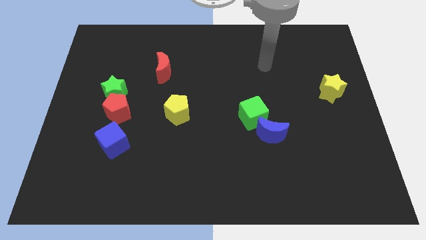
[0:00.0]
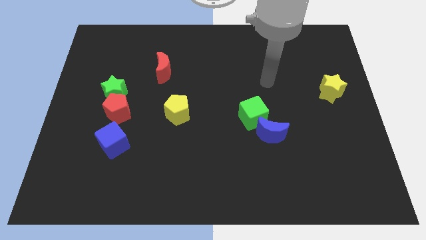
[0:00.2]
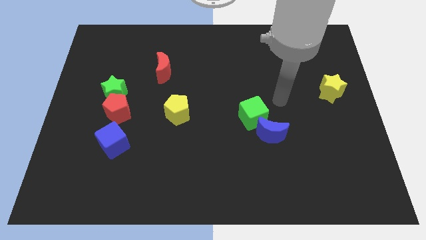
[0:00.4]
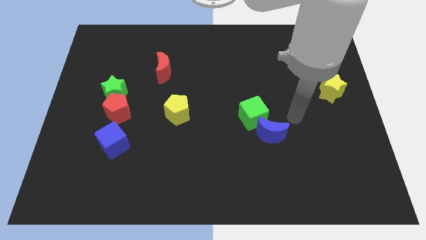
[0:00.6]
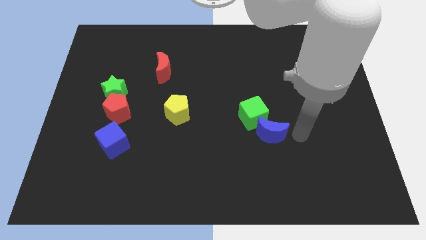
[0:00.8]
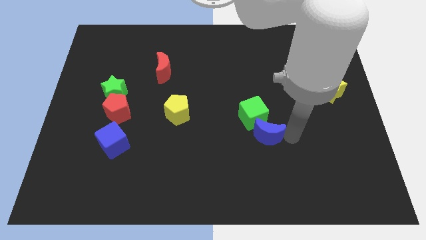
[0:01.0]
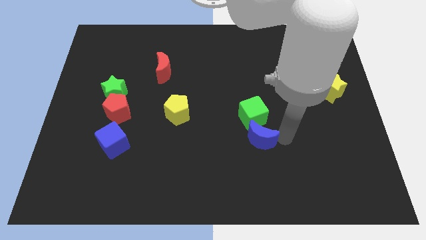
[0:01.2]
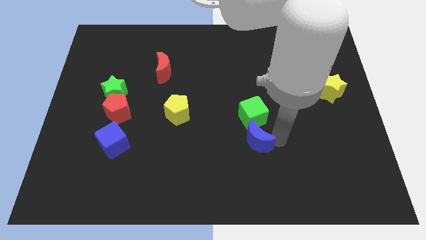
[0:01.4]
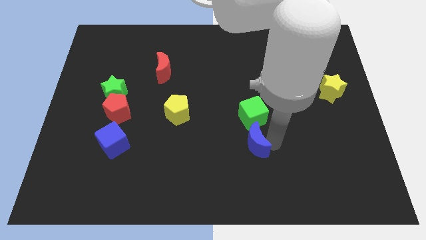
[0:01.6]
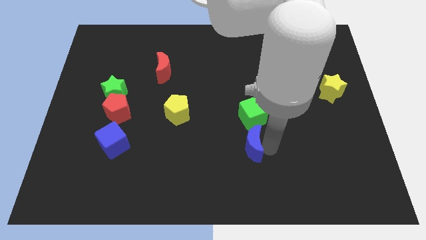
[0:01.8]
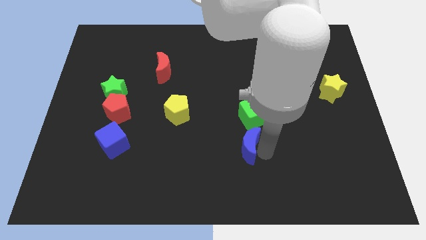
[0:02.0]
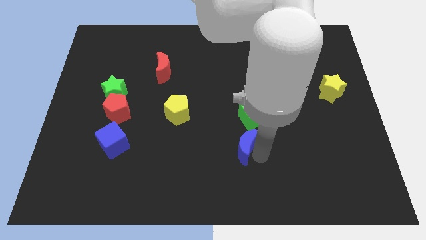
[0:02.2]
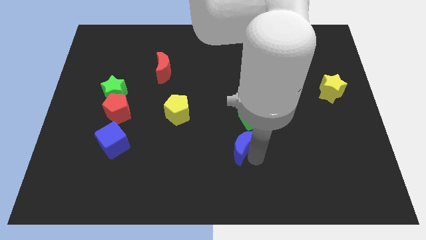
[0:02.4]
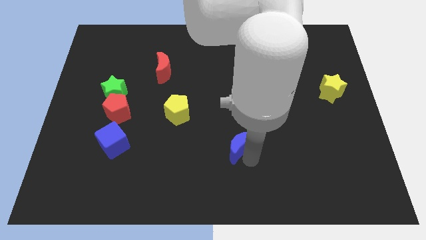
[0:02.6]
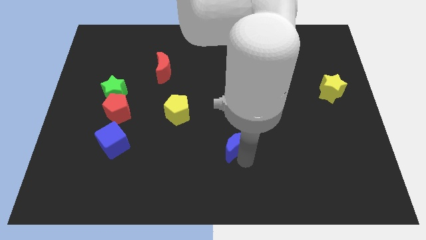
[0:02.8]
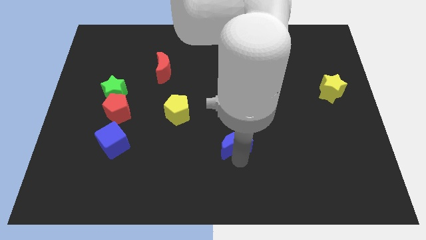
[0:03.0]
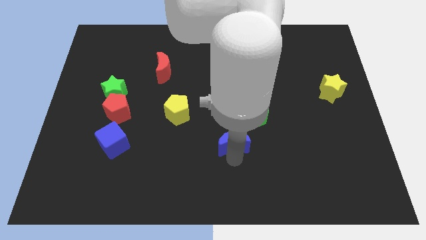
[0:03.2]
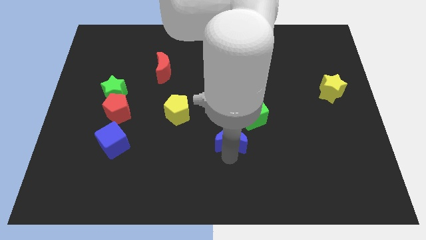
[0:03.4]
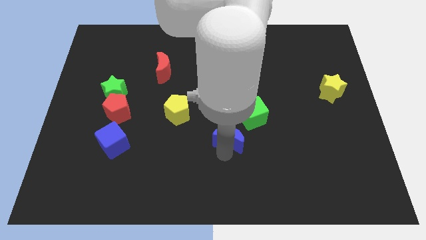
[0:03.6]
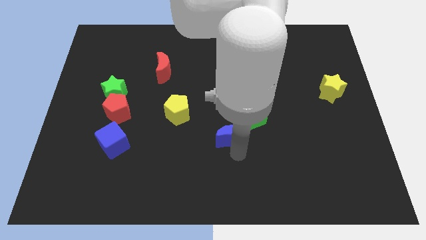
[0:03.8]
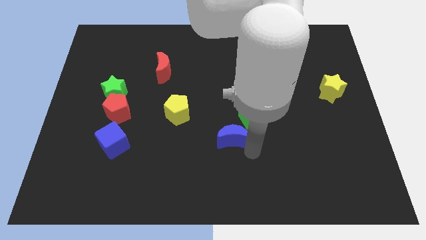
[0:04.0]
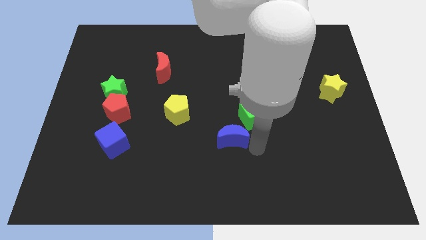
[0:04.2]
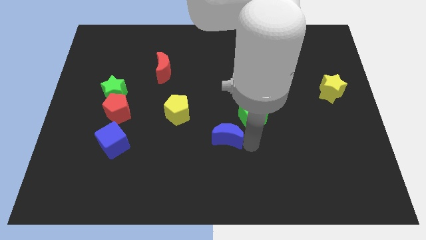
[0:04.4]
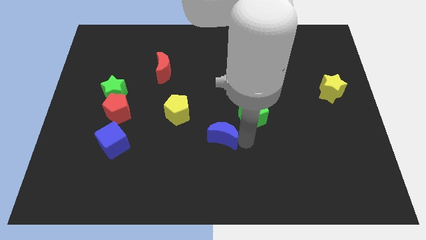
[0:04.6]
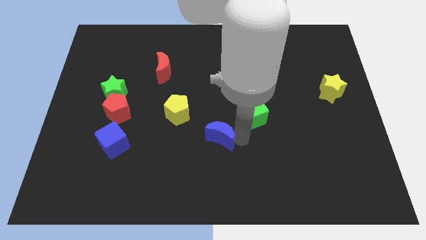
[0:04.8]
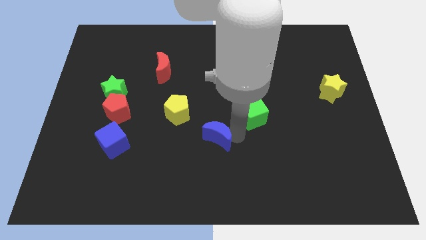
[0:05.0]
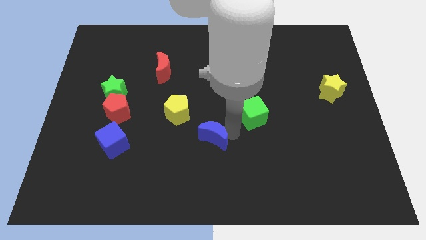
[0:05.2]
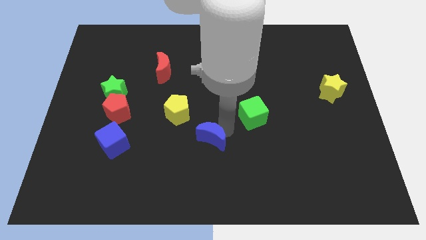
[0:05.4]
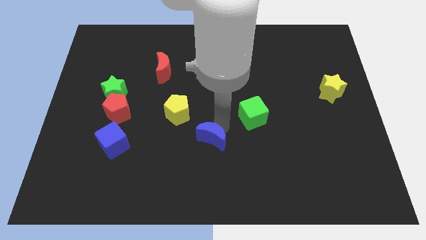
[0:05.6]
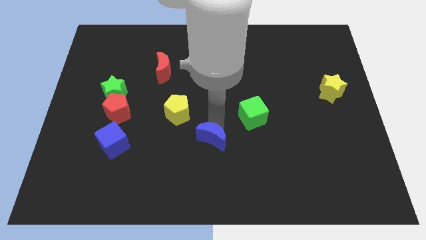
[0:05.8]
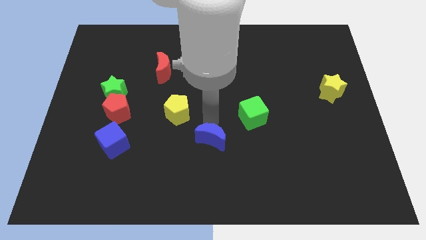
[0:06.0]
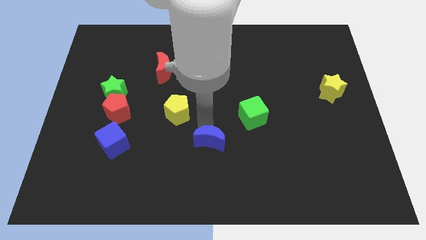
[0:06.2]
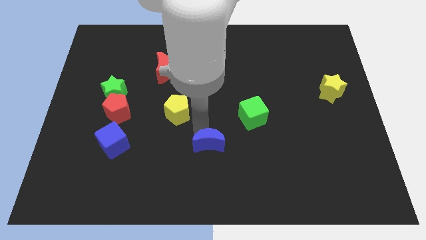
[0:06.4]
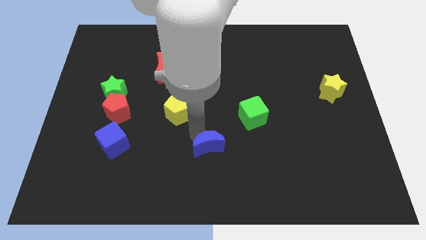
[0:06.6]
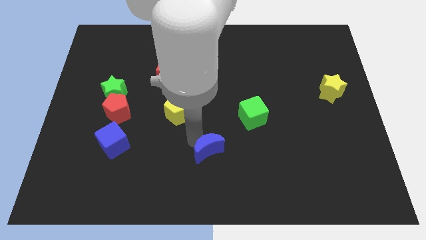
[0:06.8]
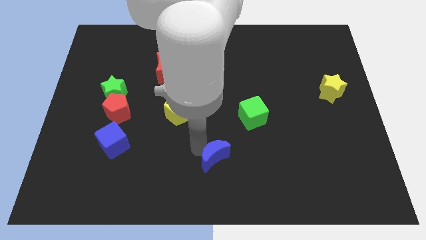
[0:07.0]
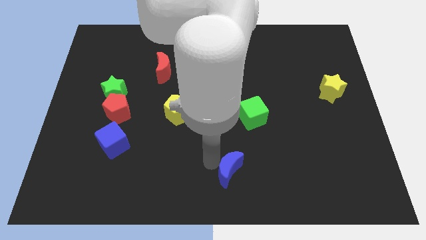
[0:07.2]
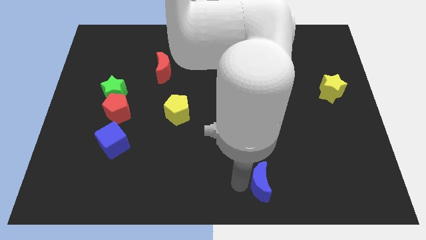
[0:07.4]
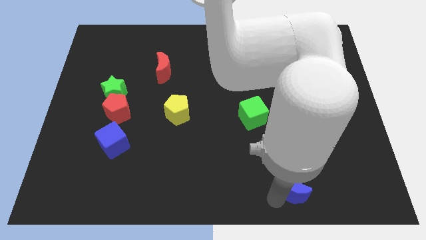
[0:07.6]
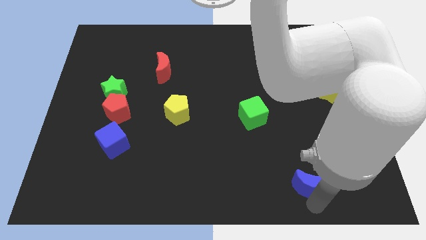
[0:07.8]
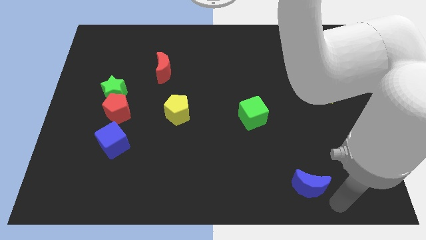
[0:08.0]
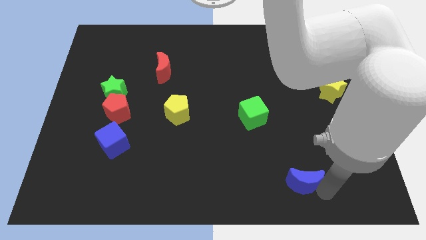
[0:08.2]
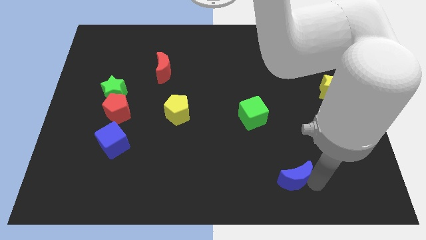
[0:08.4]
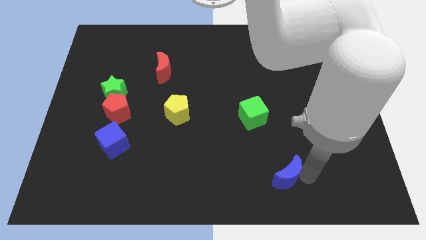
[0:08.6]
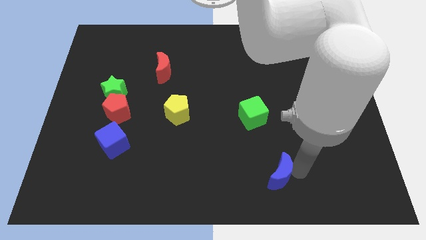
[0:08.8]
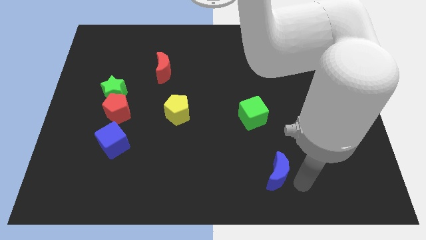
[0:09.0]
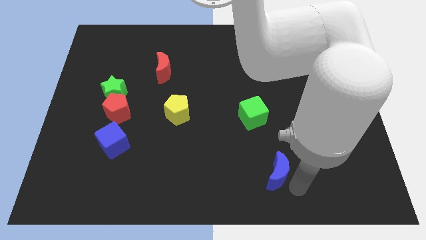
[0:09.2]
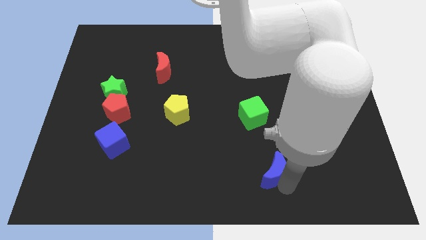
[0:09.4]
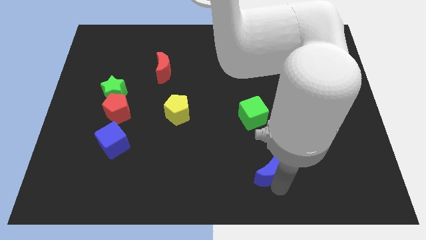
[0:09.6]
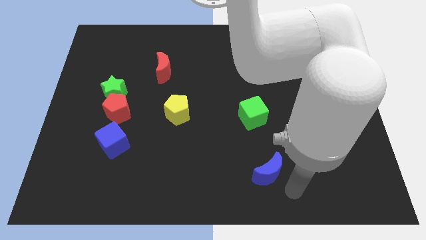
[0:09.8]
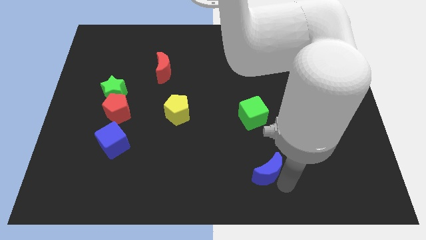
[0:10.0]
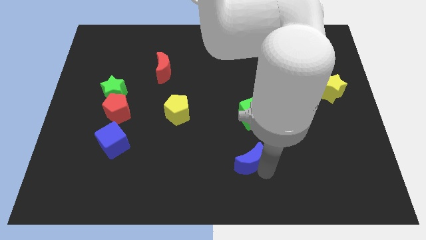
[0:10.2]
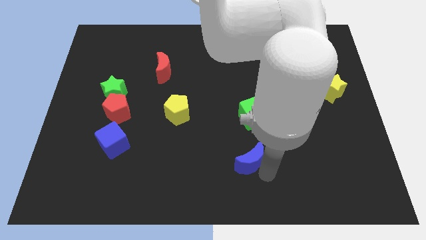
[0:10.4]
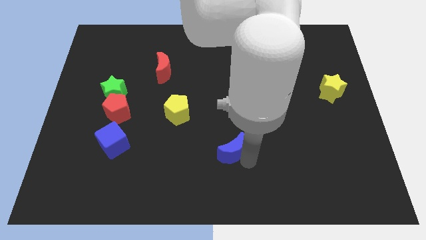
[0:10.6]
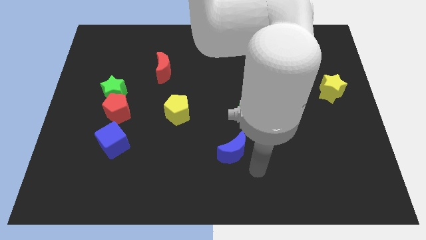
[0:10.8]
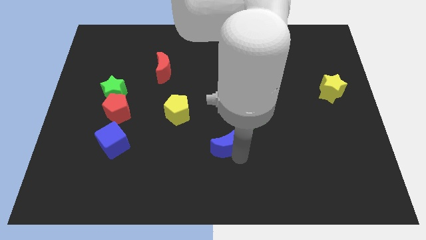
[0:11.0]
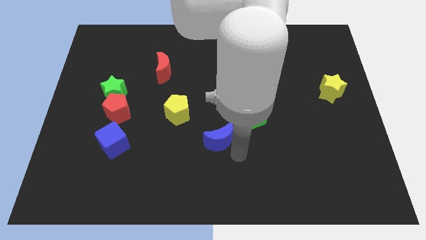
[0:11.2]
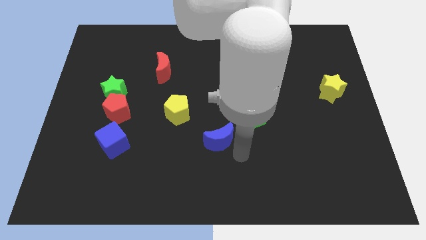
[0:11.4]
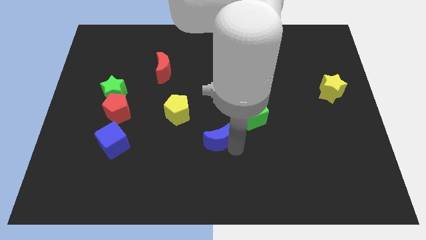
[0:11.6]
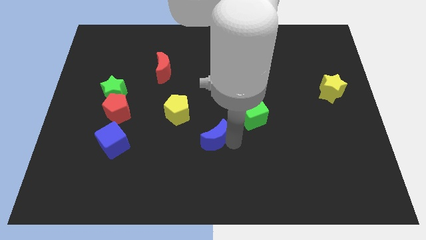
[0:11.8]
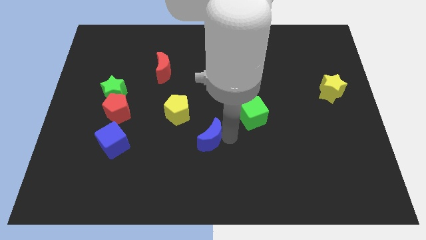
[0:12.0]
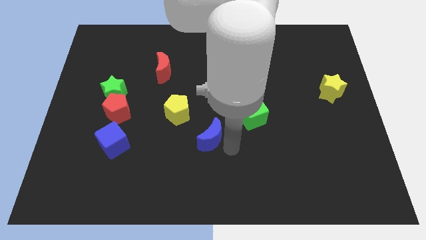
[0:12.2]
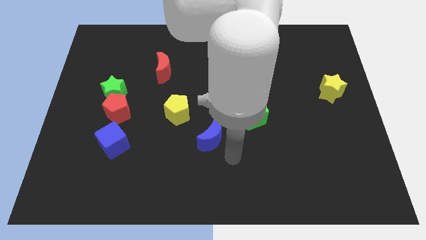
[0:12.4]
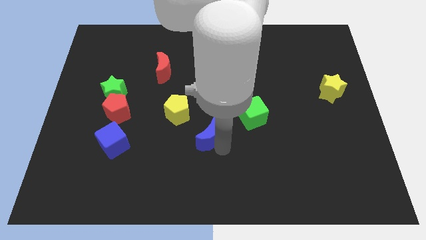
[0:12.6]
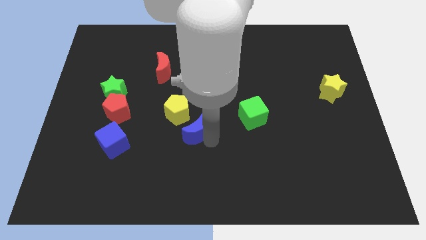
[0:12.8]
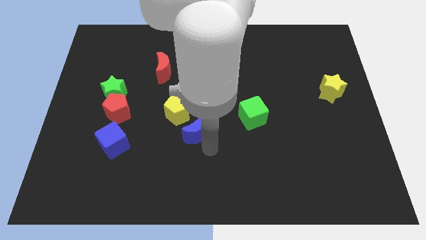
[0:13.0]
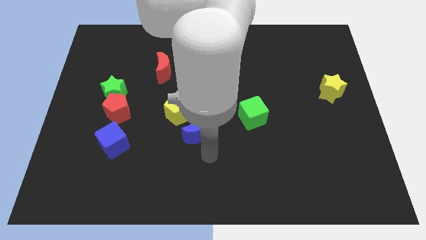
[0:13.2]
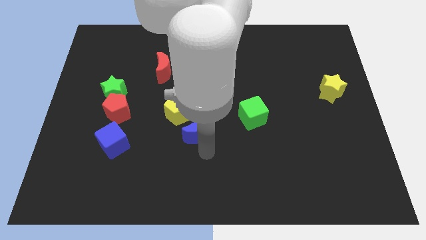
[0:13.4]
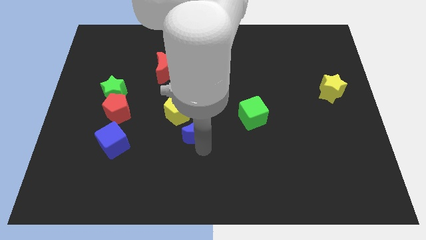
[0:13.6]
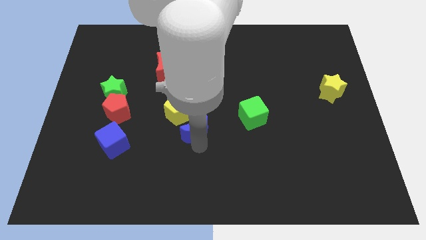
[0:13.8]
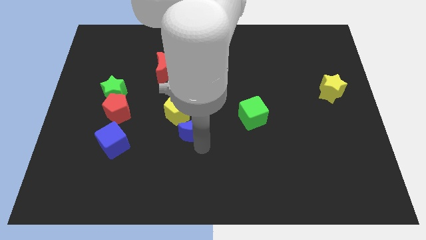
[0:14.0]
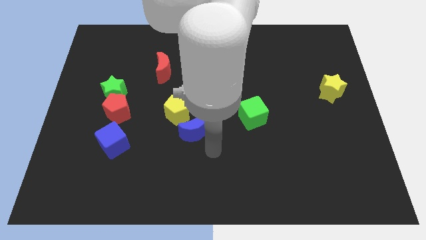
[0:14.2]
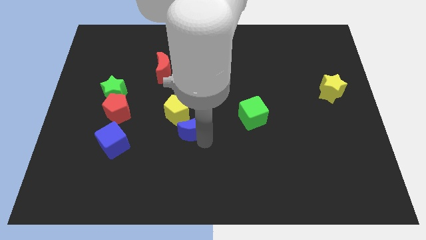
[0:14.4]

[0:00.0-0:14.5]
slide the blue moon towards the yellow pentagon

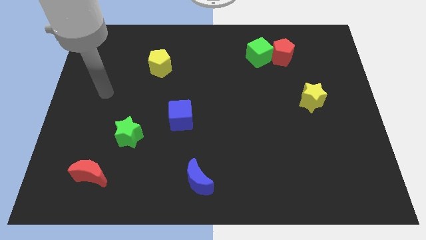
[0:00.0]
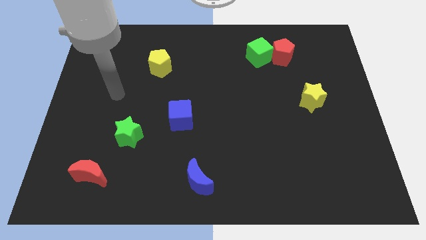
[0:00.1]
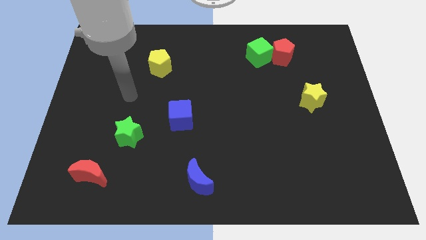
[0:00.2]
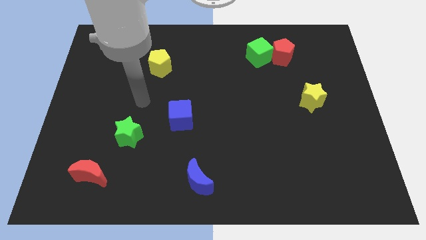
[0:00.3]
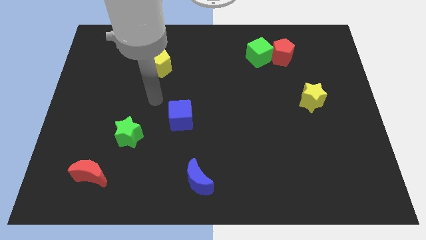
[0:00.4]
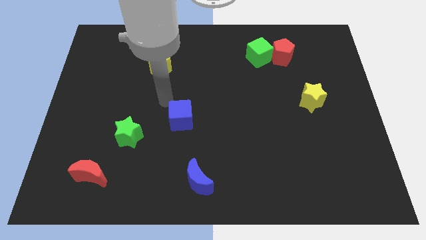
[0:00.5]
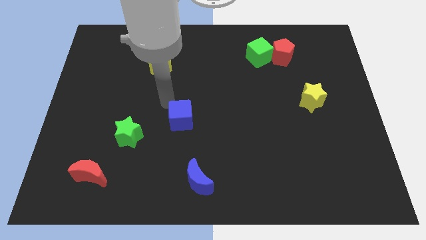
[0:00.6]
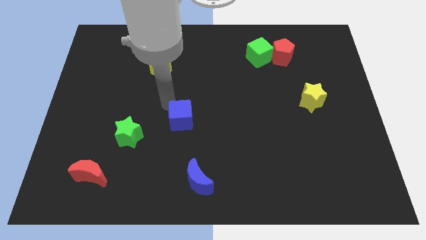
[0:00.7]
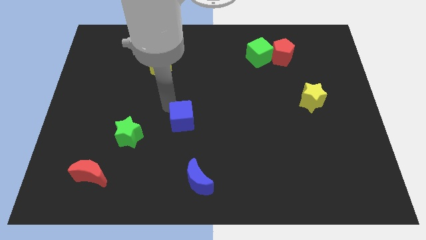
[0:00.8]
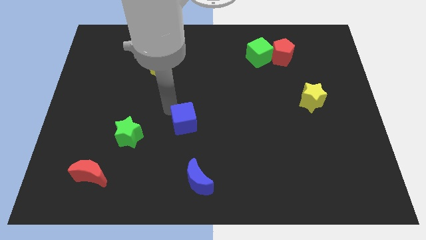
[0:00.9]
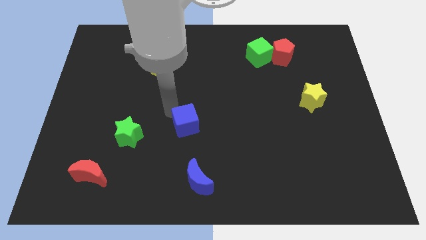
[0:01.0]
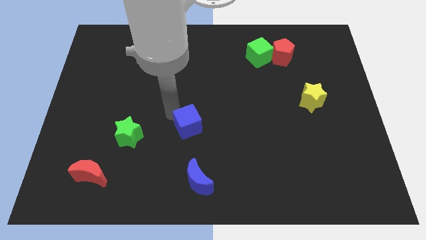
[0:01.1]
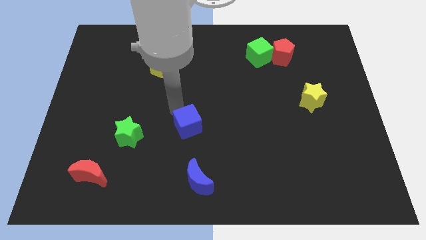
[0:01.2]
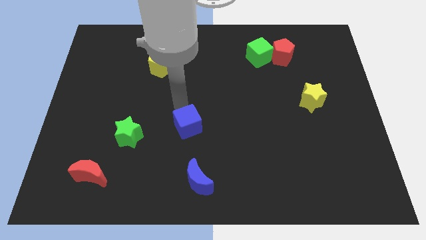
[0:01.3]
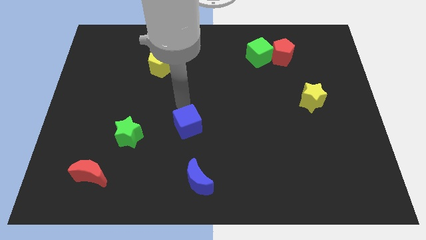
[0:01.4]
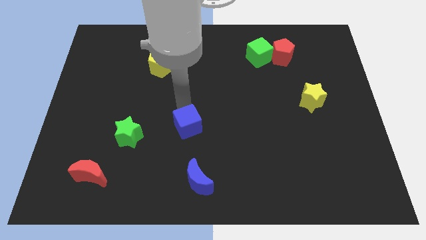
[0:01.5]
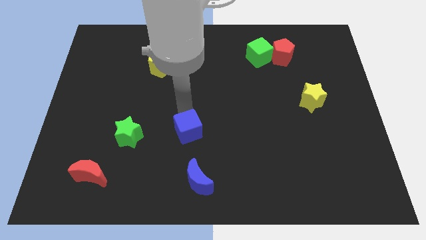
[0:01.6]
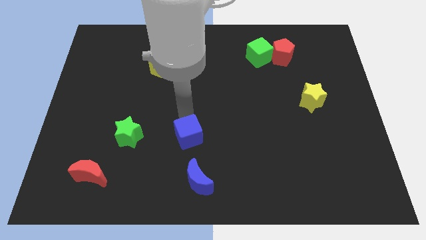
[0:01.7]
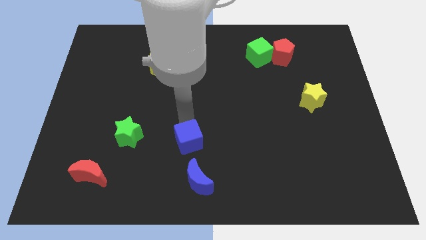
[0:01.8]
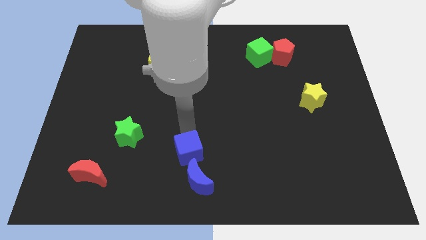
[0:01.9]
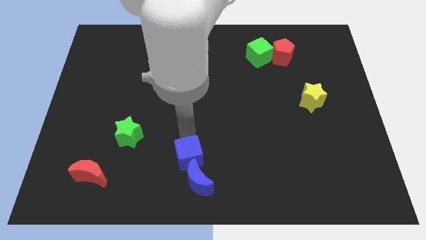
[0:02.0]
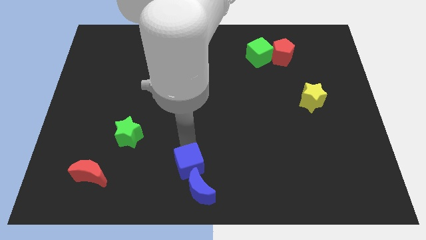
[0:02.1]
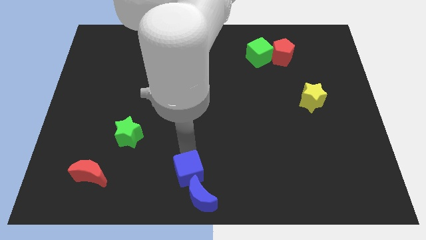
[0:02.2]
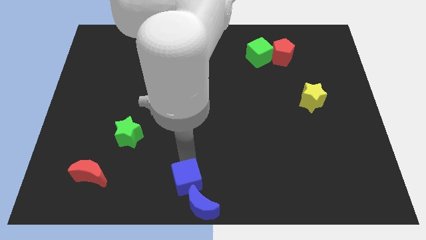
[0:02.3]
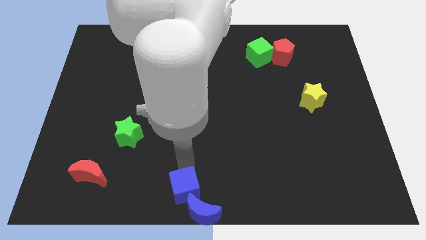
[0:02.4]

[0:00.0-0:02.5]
slide the blue cube close to the blue moon
